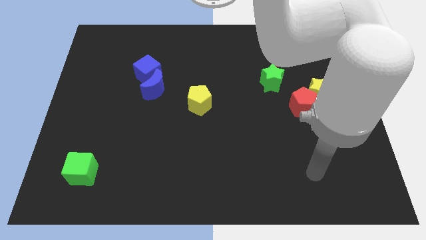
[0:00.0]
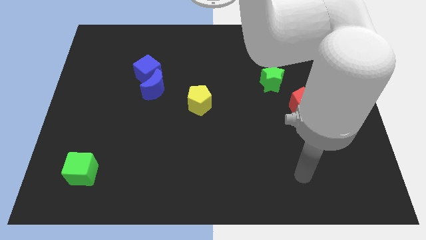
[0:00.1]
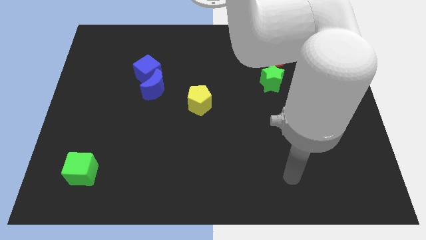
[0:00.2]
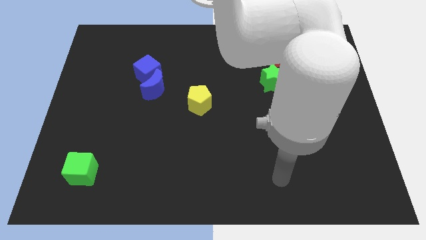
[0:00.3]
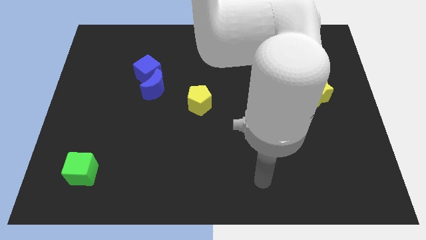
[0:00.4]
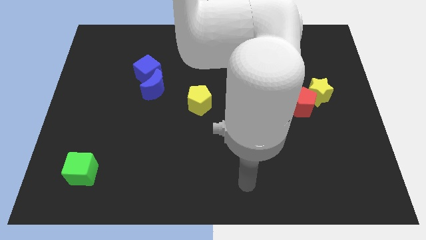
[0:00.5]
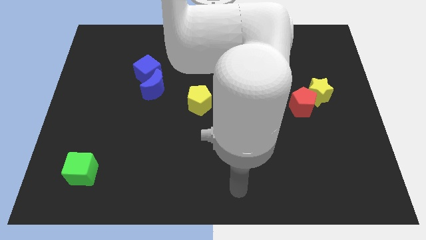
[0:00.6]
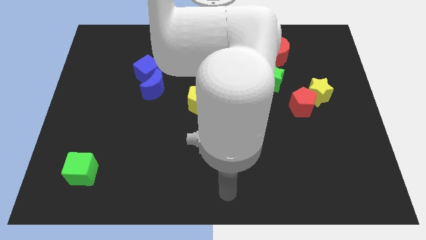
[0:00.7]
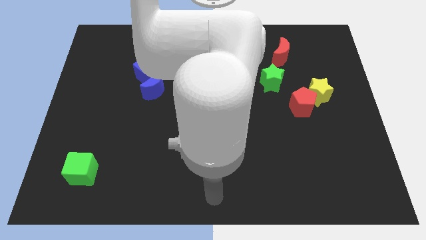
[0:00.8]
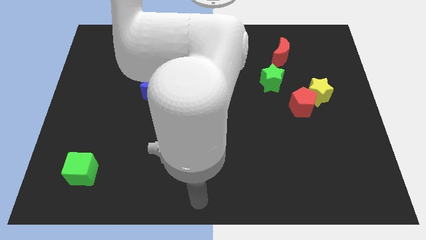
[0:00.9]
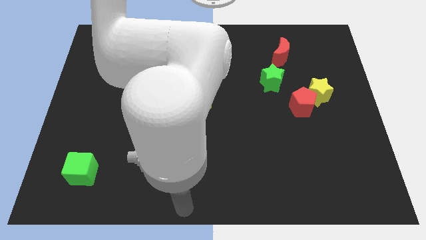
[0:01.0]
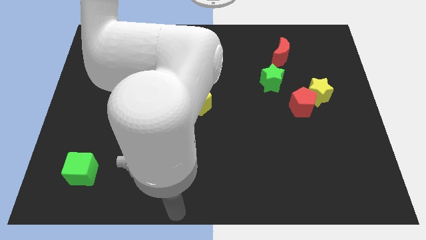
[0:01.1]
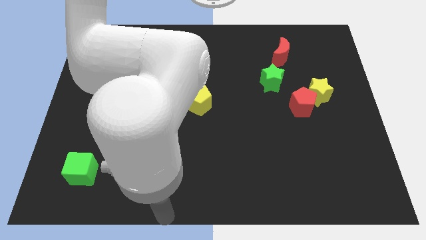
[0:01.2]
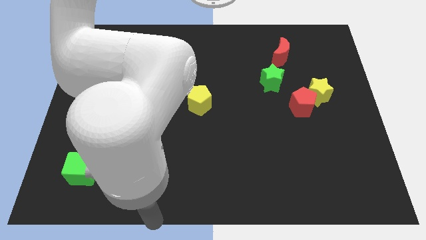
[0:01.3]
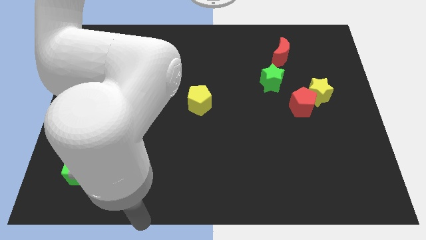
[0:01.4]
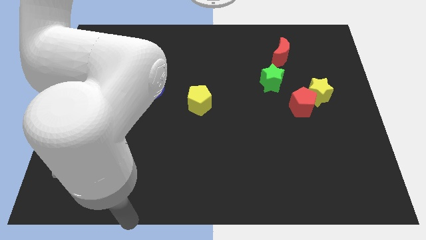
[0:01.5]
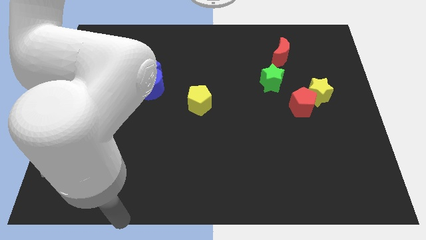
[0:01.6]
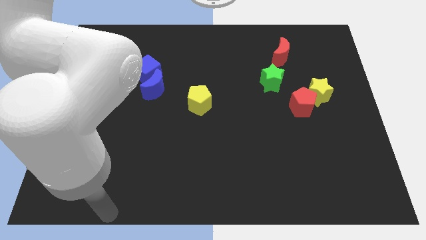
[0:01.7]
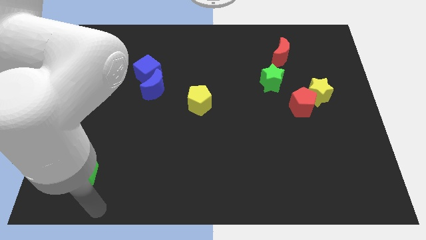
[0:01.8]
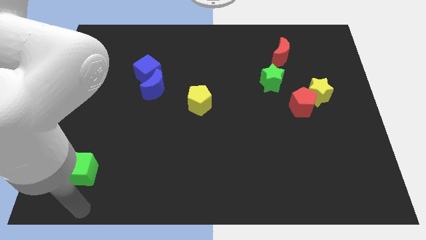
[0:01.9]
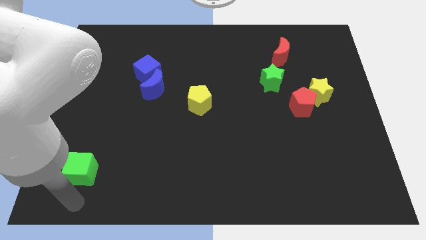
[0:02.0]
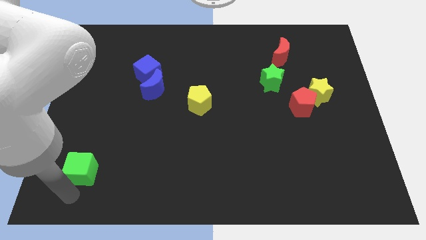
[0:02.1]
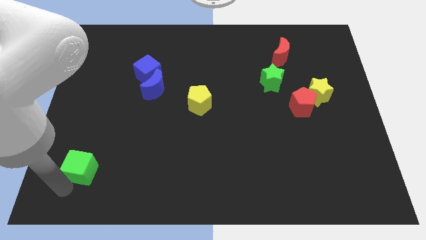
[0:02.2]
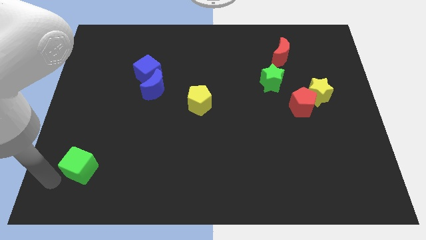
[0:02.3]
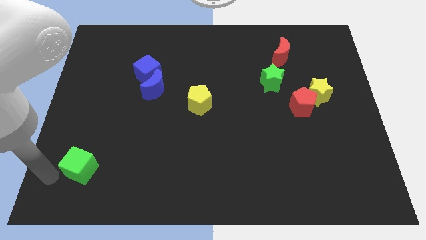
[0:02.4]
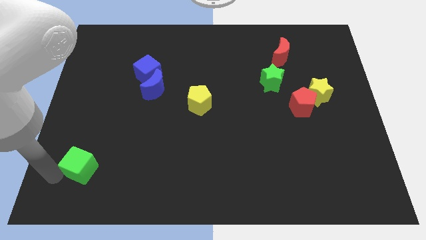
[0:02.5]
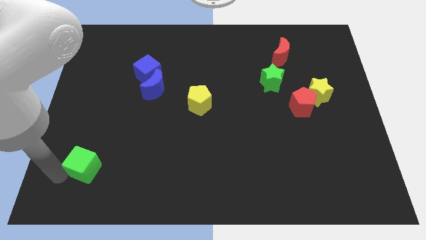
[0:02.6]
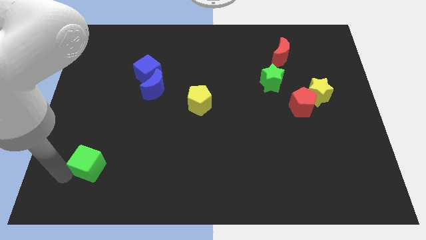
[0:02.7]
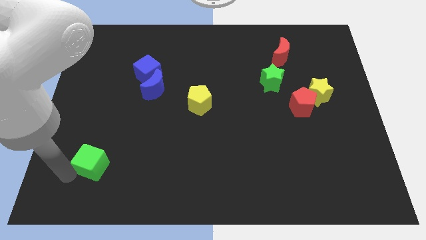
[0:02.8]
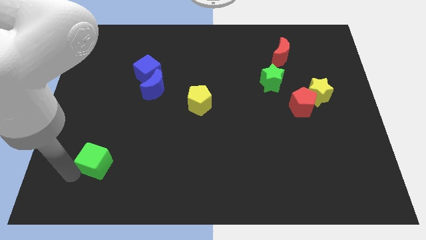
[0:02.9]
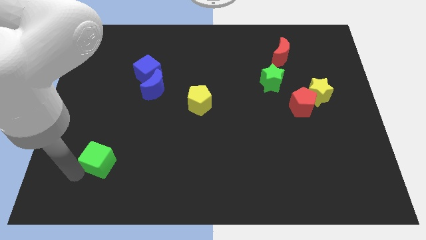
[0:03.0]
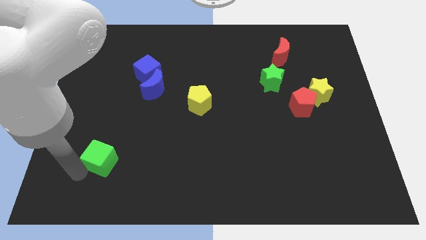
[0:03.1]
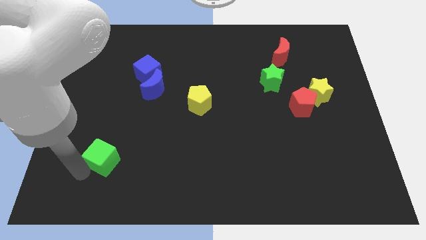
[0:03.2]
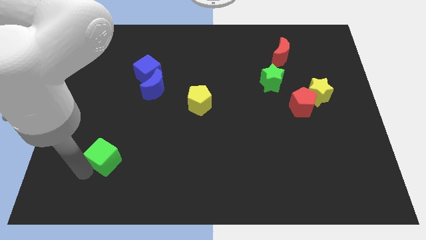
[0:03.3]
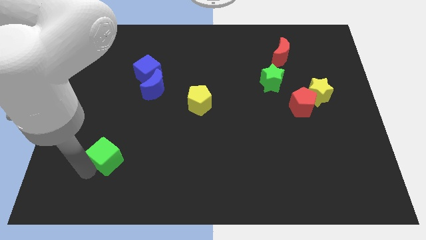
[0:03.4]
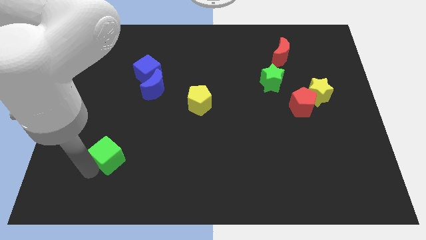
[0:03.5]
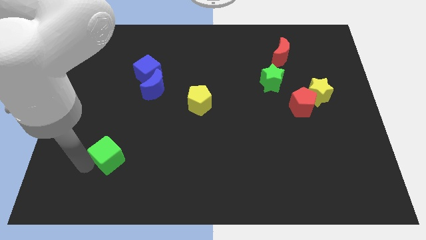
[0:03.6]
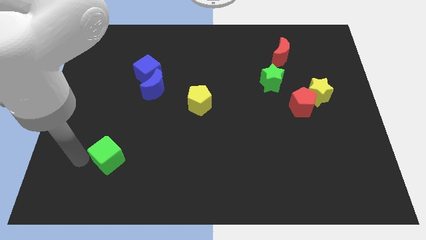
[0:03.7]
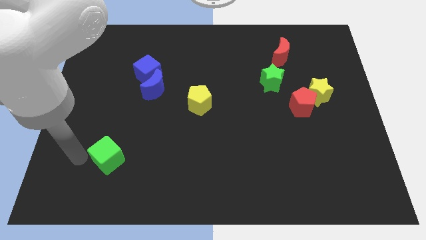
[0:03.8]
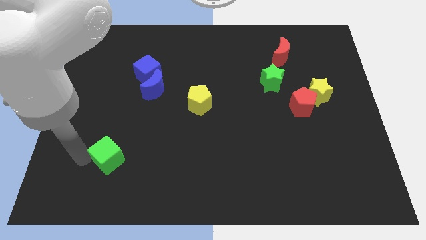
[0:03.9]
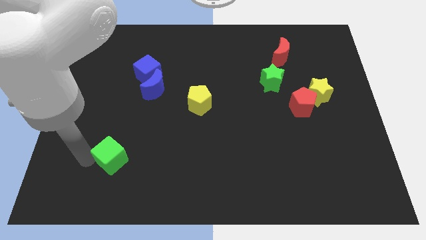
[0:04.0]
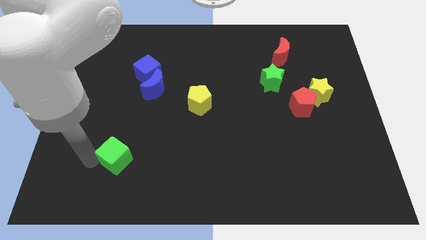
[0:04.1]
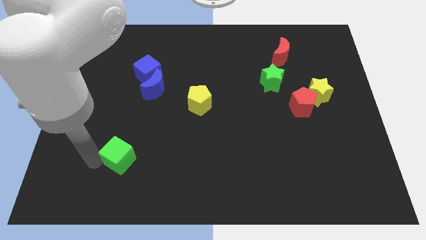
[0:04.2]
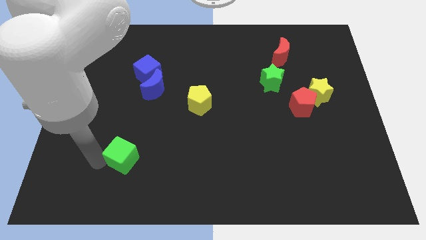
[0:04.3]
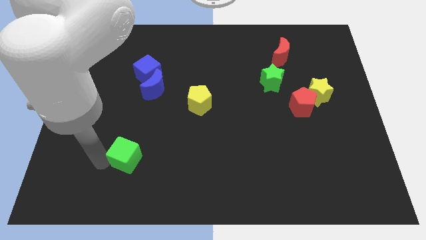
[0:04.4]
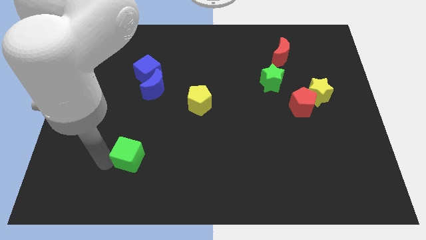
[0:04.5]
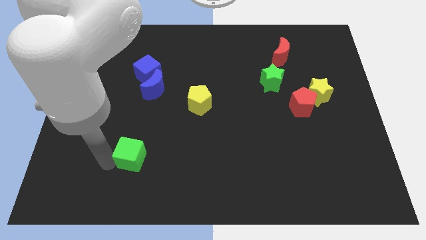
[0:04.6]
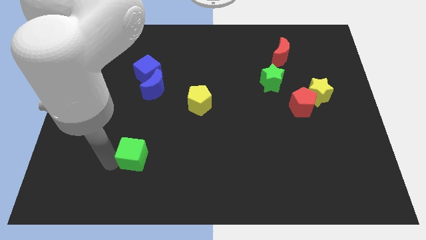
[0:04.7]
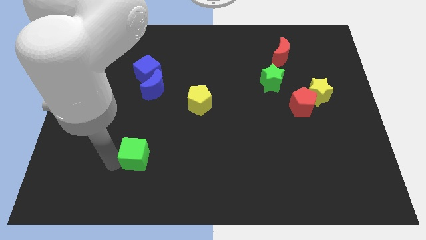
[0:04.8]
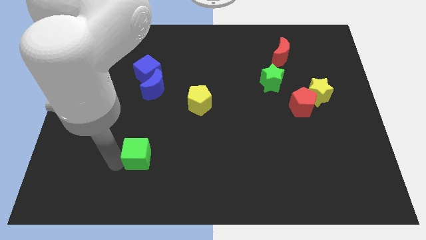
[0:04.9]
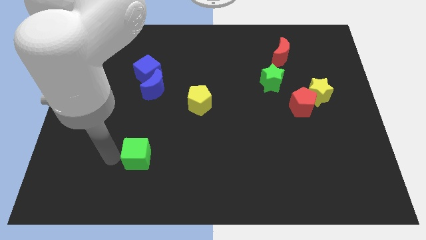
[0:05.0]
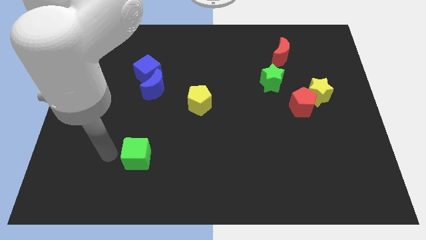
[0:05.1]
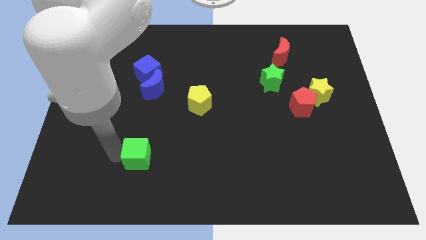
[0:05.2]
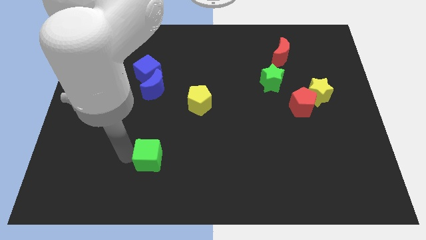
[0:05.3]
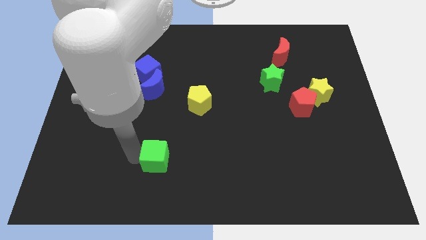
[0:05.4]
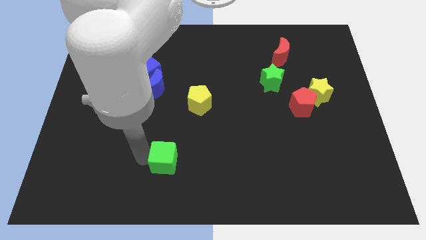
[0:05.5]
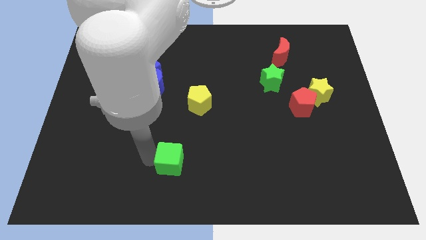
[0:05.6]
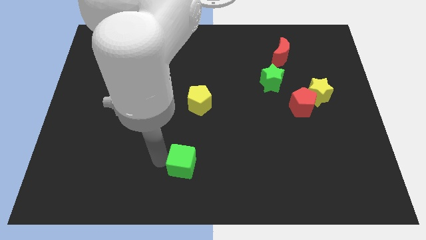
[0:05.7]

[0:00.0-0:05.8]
move the green cube right

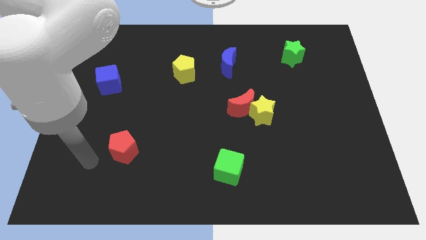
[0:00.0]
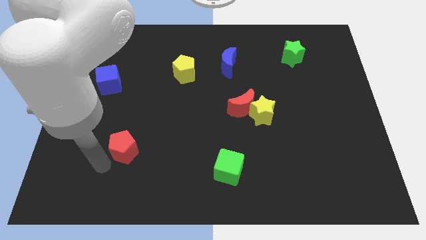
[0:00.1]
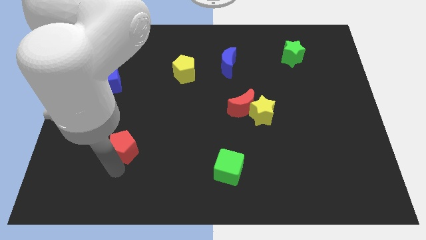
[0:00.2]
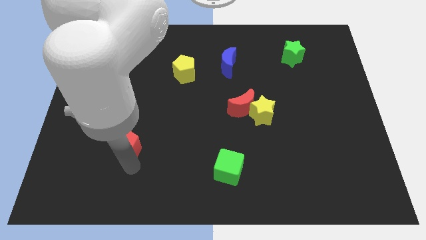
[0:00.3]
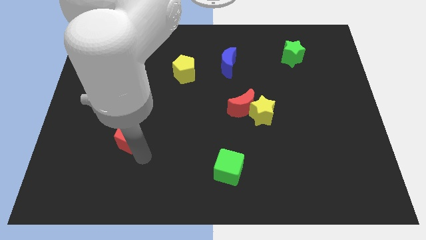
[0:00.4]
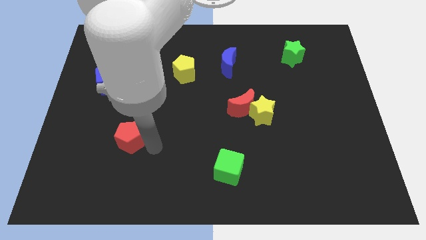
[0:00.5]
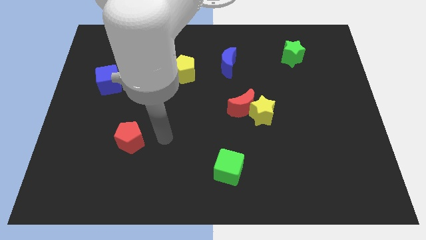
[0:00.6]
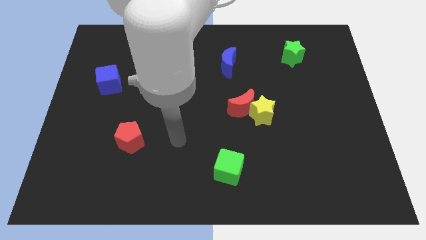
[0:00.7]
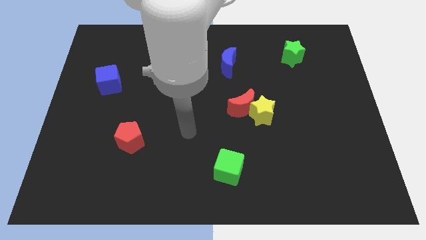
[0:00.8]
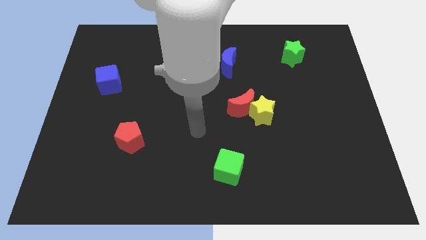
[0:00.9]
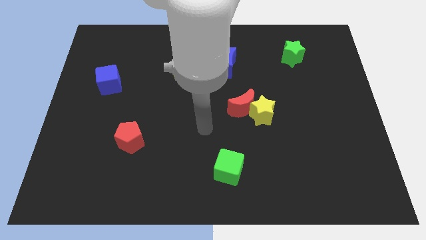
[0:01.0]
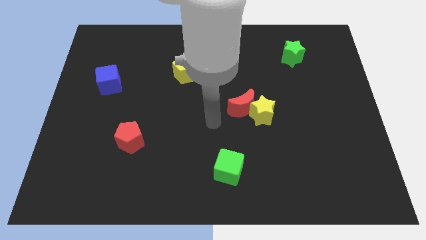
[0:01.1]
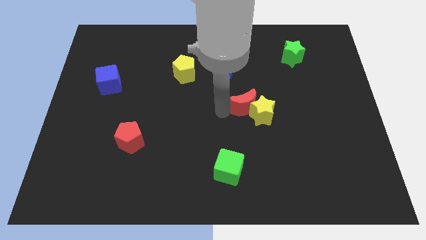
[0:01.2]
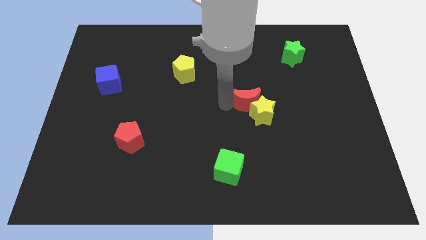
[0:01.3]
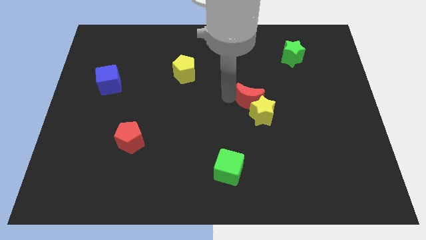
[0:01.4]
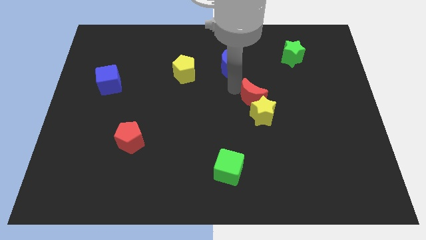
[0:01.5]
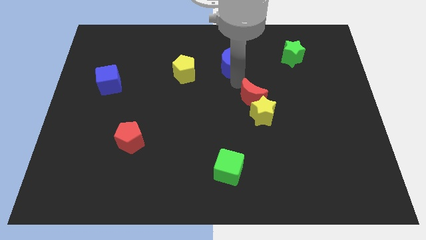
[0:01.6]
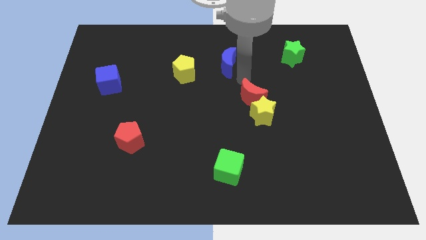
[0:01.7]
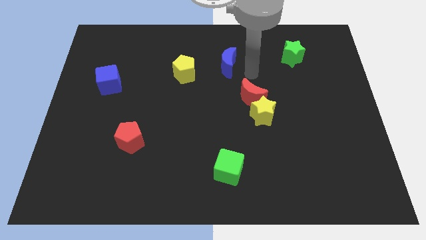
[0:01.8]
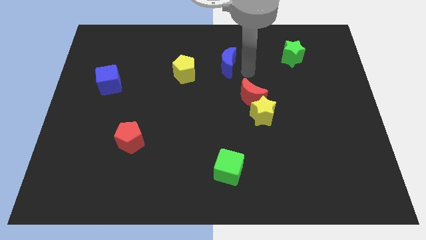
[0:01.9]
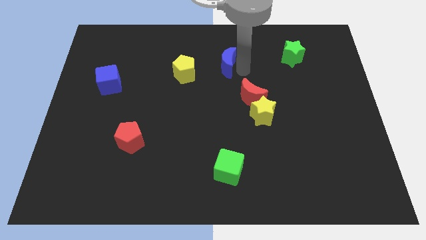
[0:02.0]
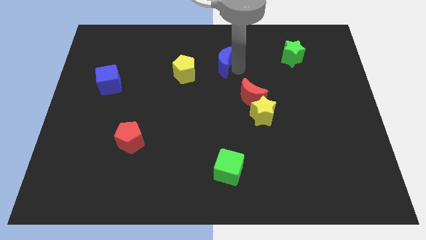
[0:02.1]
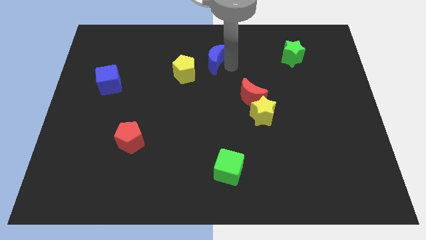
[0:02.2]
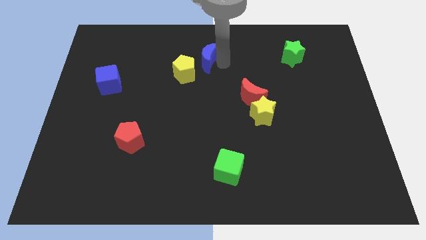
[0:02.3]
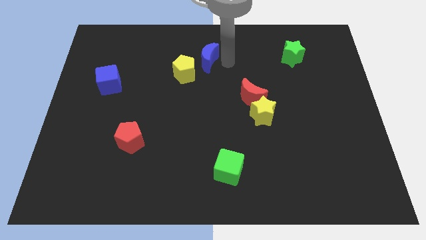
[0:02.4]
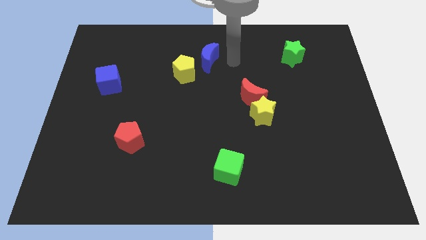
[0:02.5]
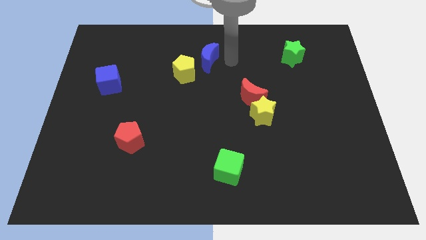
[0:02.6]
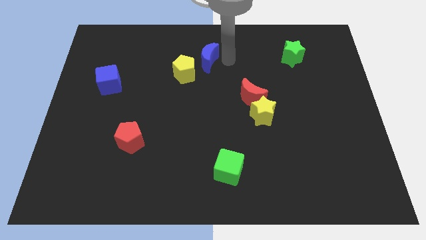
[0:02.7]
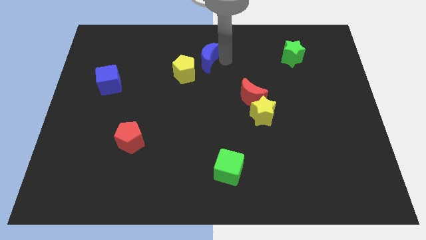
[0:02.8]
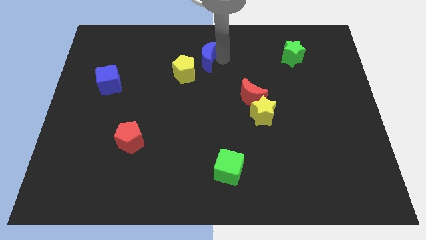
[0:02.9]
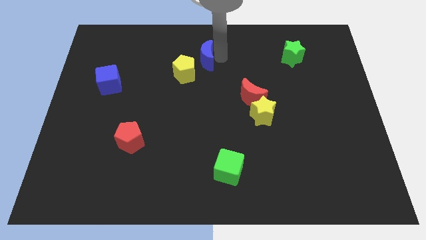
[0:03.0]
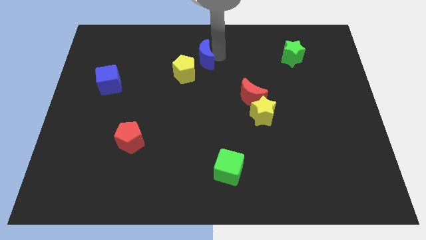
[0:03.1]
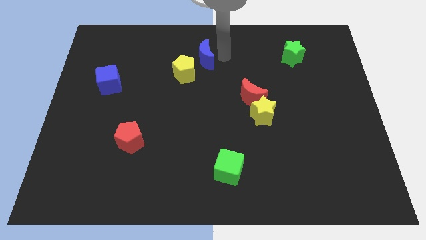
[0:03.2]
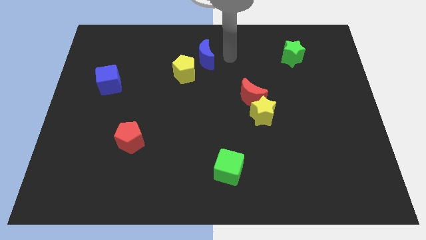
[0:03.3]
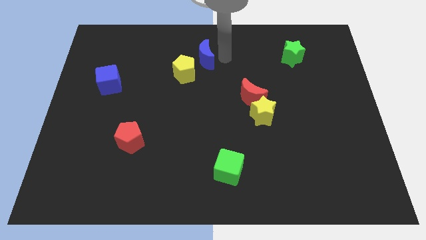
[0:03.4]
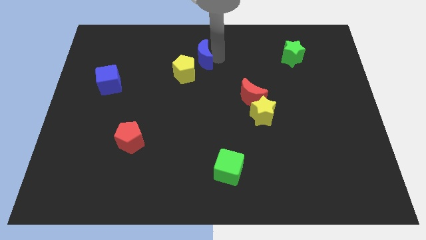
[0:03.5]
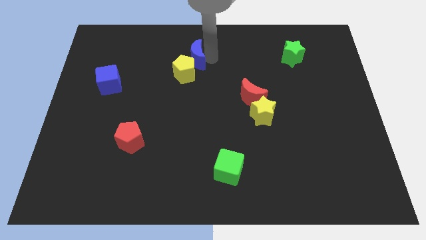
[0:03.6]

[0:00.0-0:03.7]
move the blue moon to the left a bit
